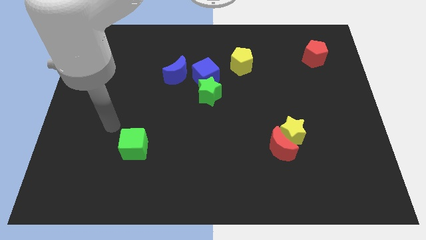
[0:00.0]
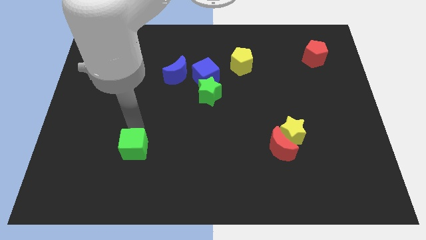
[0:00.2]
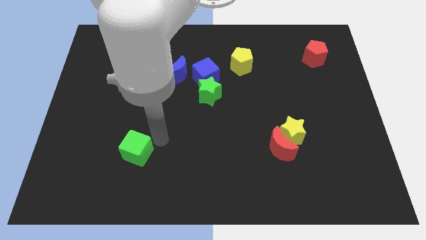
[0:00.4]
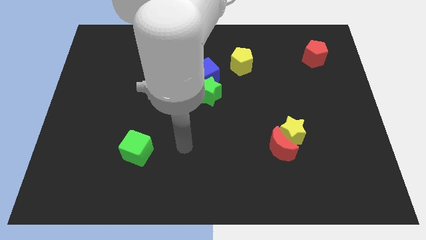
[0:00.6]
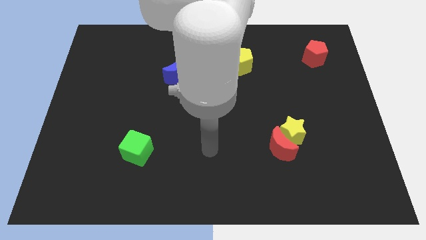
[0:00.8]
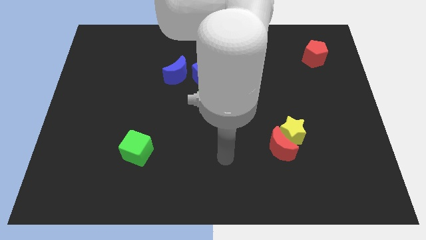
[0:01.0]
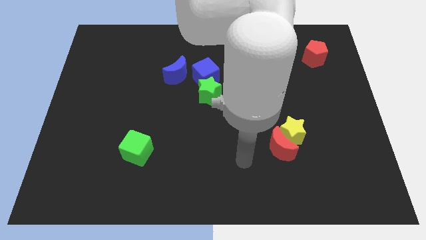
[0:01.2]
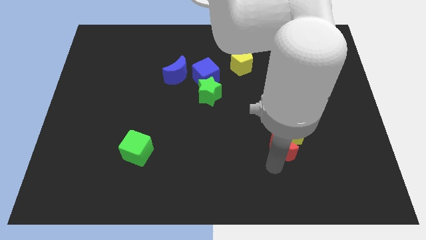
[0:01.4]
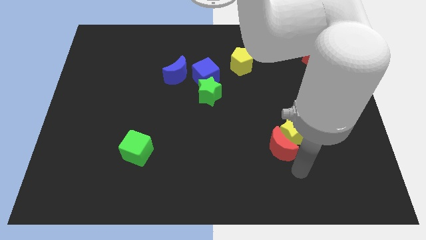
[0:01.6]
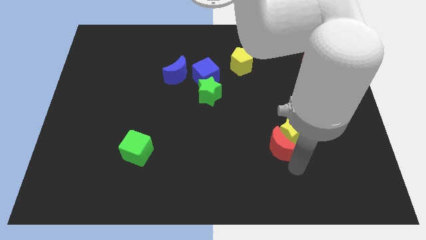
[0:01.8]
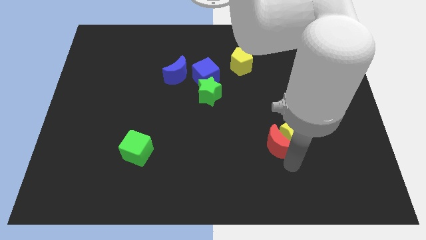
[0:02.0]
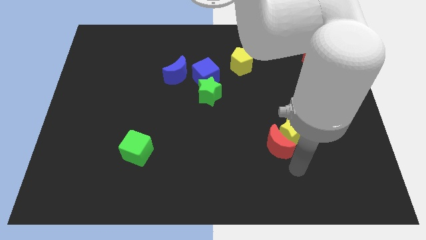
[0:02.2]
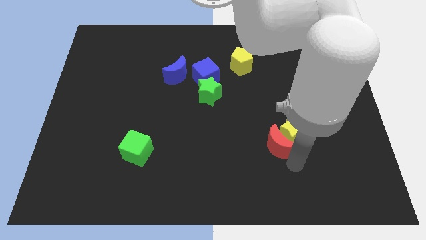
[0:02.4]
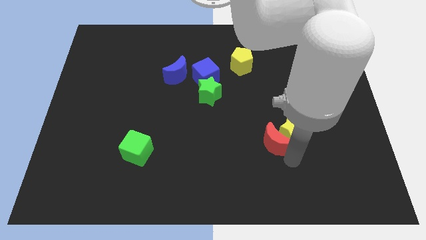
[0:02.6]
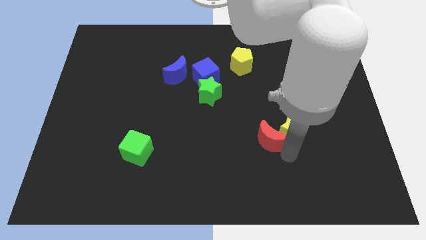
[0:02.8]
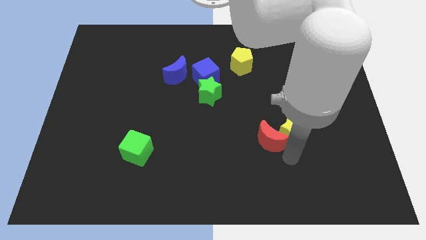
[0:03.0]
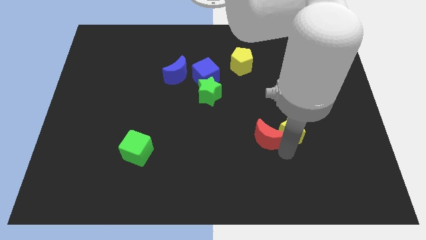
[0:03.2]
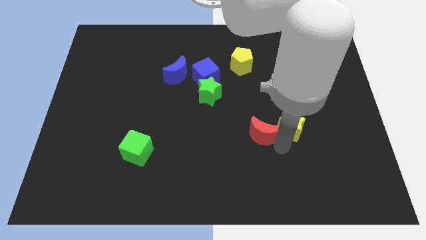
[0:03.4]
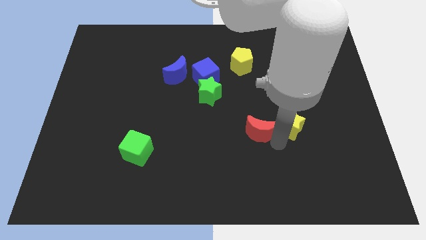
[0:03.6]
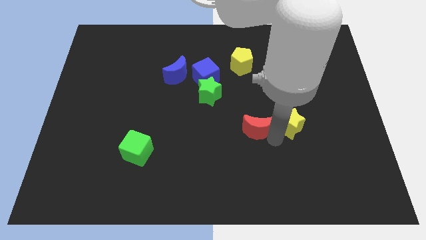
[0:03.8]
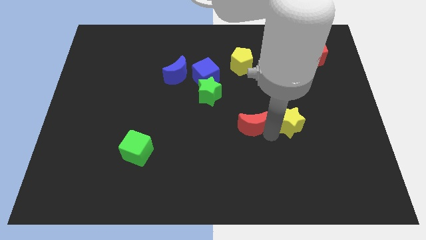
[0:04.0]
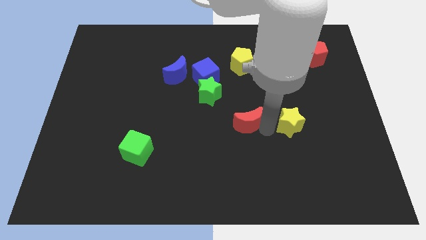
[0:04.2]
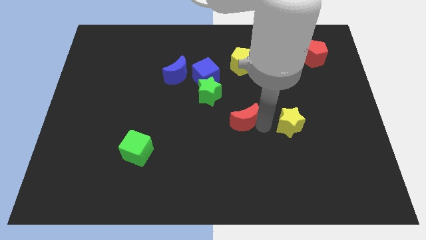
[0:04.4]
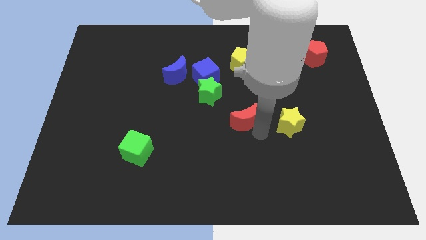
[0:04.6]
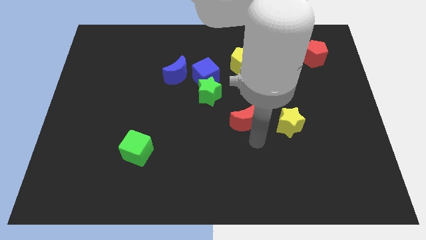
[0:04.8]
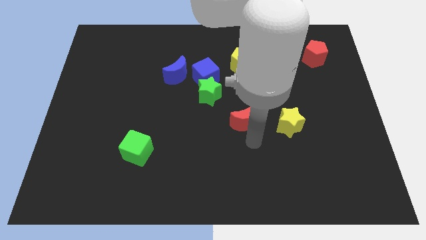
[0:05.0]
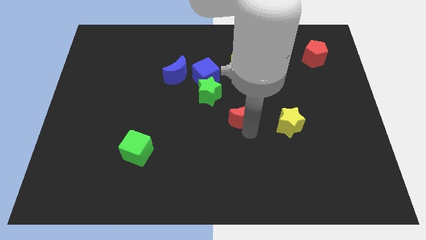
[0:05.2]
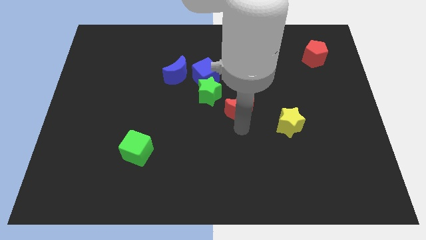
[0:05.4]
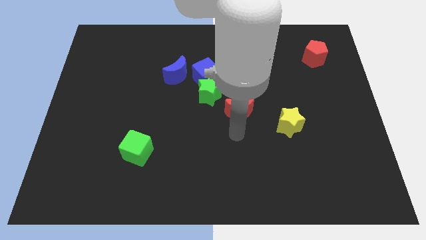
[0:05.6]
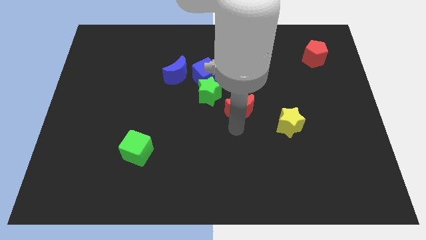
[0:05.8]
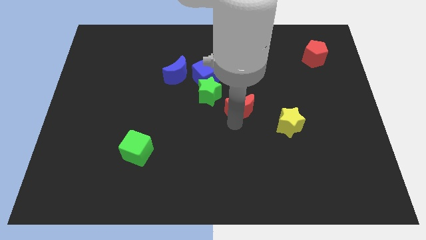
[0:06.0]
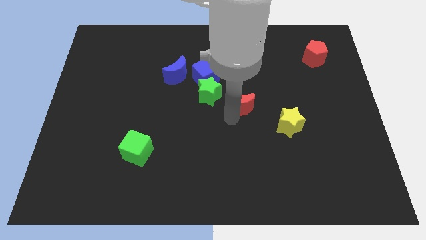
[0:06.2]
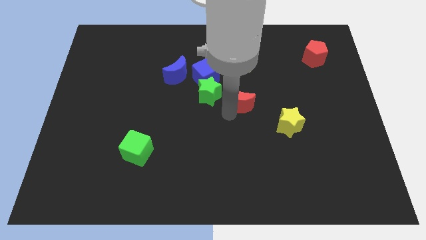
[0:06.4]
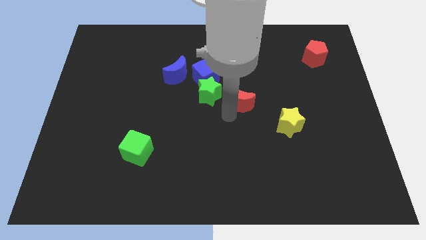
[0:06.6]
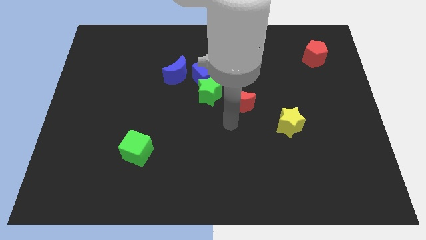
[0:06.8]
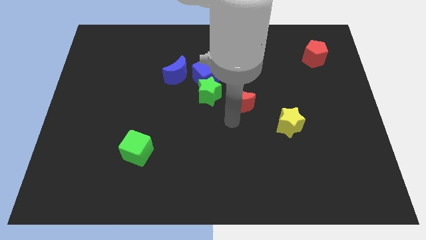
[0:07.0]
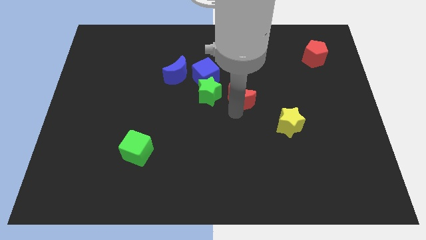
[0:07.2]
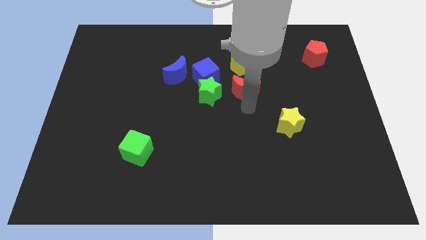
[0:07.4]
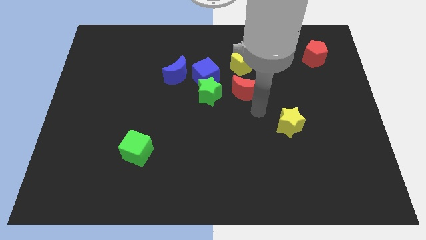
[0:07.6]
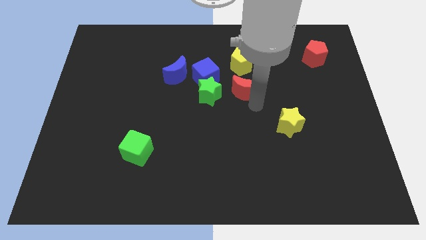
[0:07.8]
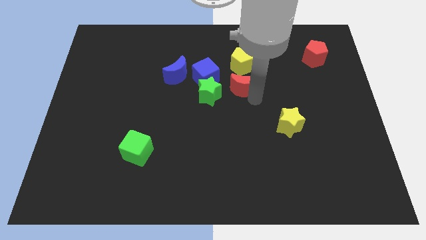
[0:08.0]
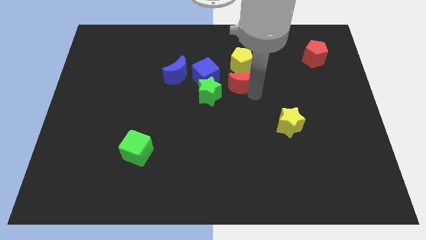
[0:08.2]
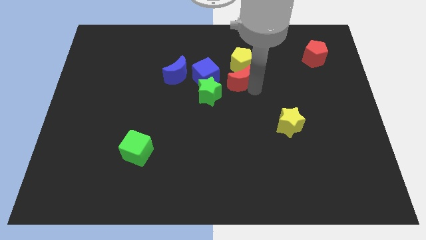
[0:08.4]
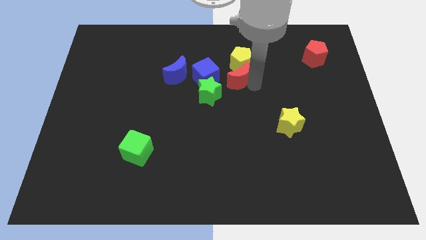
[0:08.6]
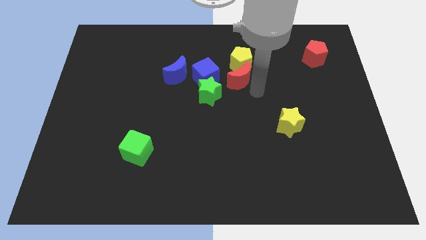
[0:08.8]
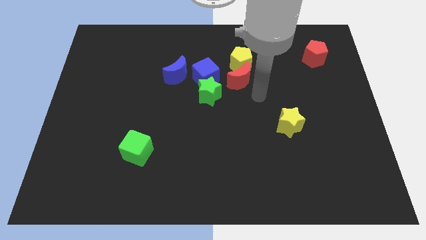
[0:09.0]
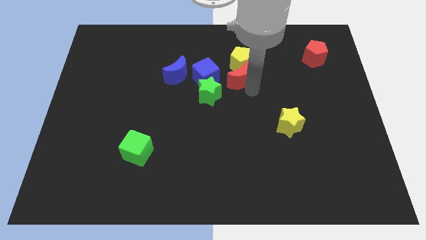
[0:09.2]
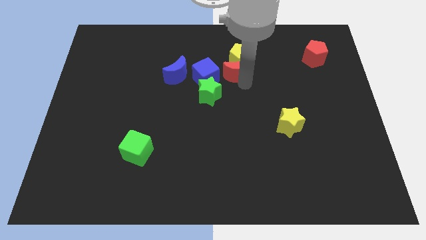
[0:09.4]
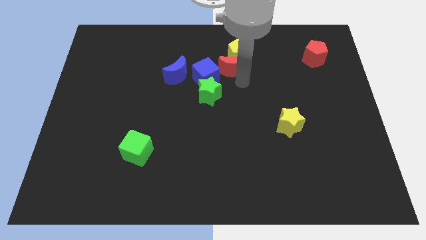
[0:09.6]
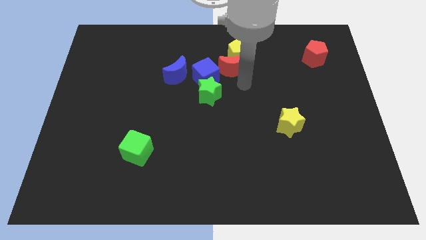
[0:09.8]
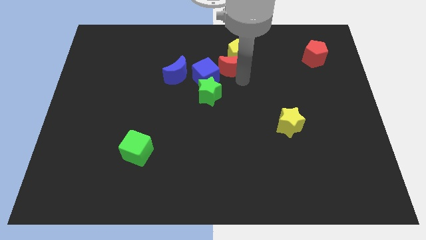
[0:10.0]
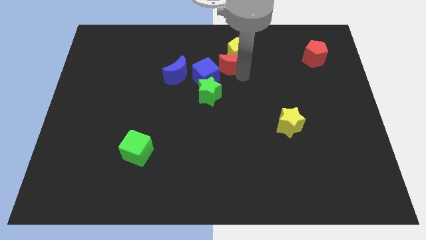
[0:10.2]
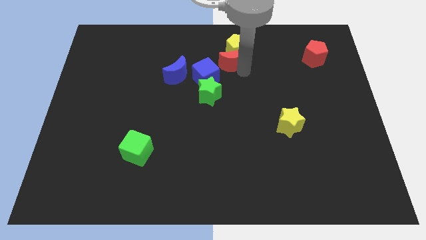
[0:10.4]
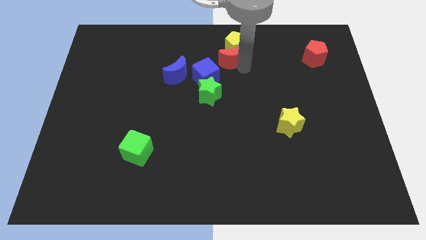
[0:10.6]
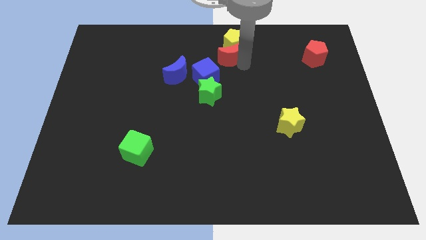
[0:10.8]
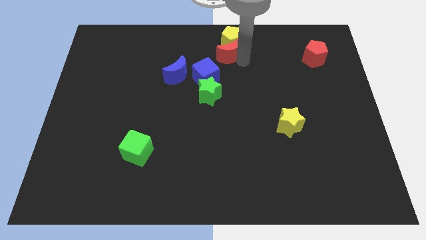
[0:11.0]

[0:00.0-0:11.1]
slide the red moon to the top side
